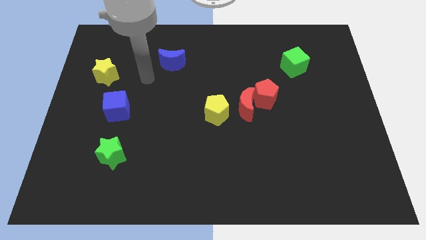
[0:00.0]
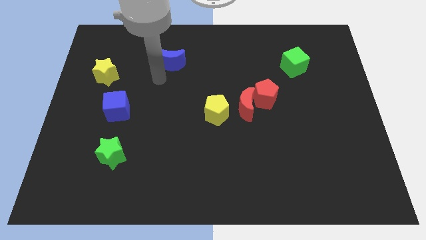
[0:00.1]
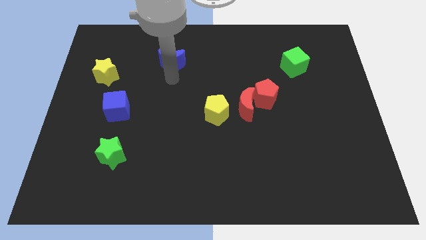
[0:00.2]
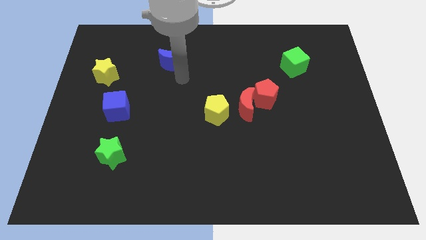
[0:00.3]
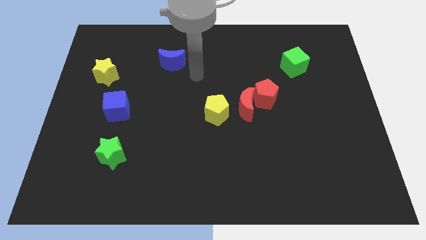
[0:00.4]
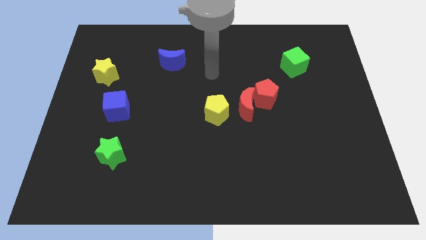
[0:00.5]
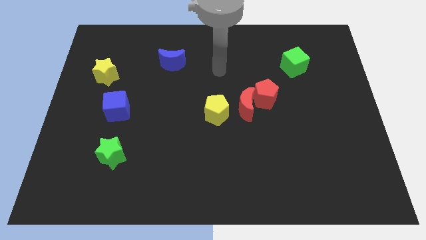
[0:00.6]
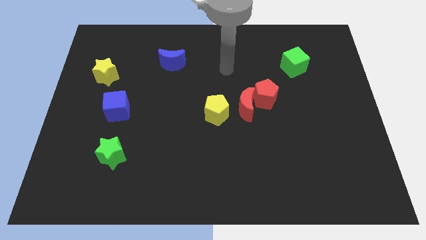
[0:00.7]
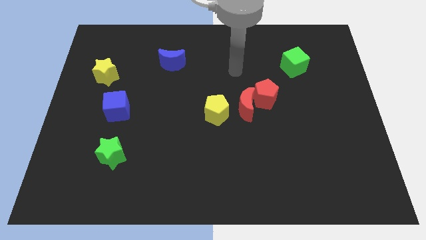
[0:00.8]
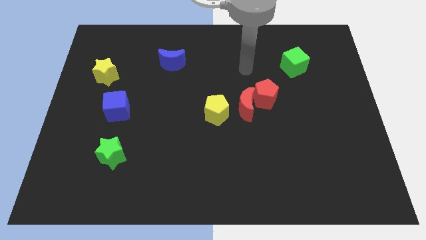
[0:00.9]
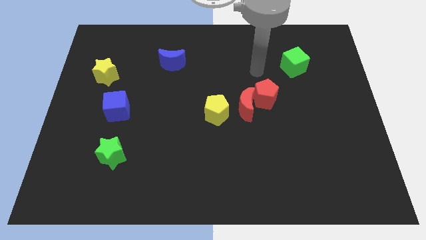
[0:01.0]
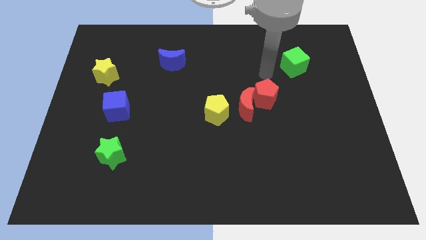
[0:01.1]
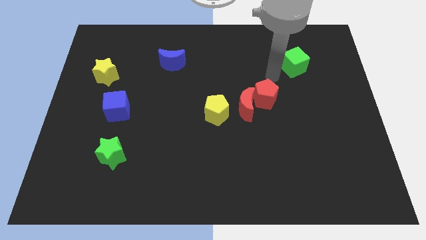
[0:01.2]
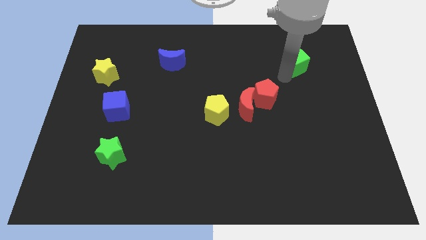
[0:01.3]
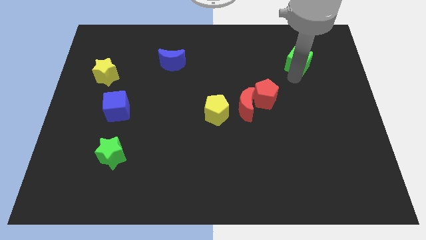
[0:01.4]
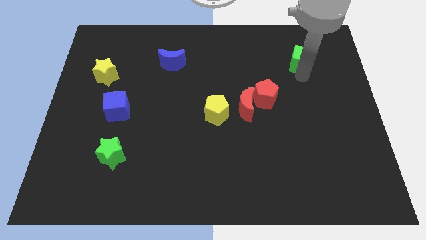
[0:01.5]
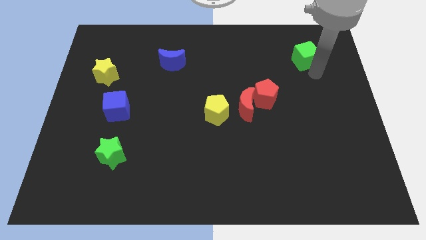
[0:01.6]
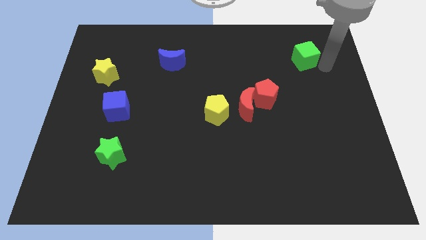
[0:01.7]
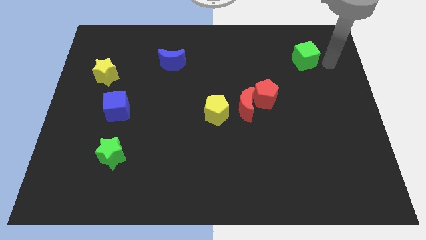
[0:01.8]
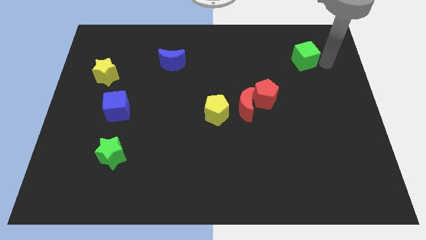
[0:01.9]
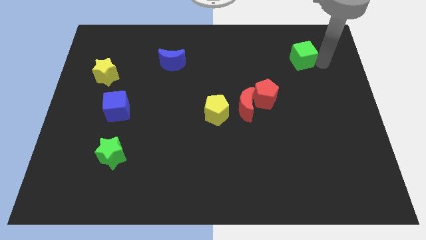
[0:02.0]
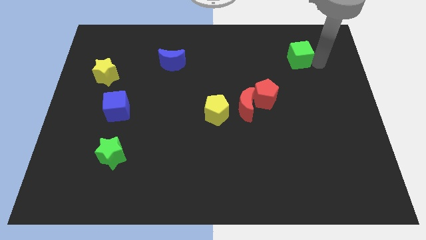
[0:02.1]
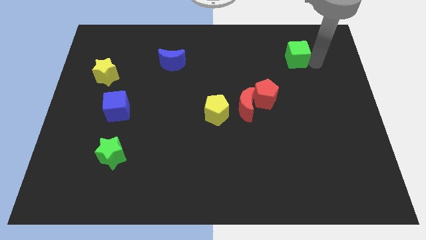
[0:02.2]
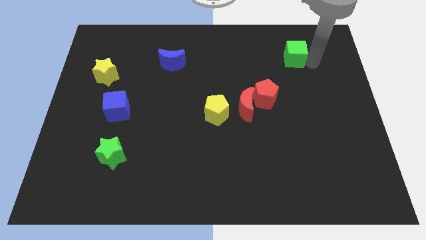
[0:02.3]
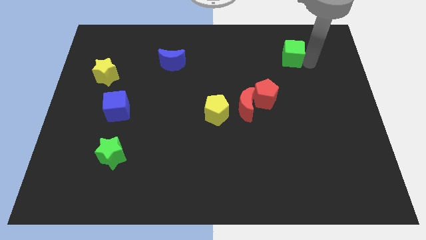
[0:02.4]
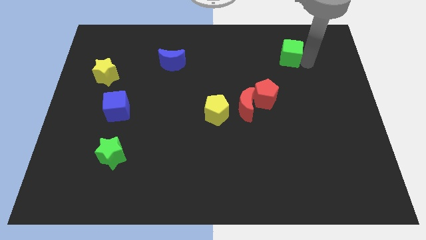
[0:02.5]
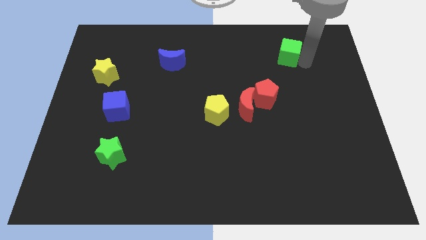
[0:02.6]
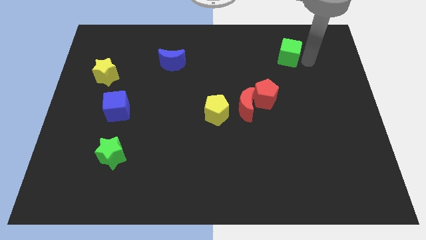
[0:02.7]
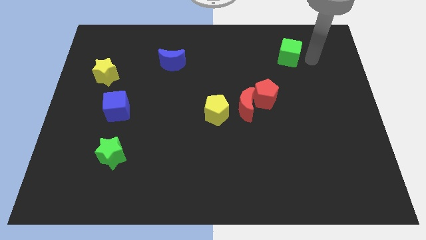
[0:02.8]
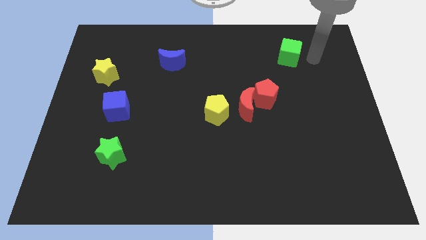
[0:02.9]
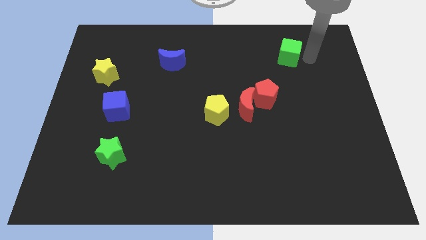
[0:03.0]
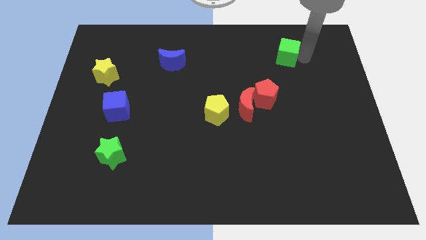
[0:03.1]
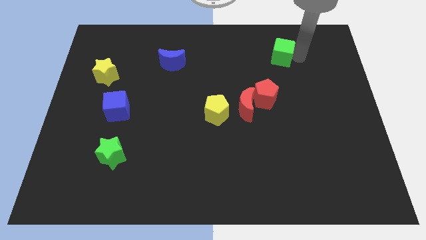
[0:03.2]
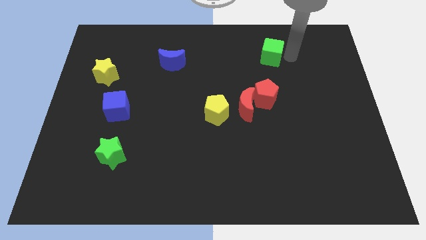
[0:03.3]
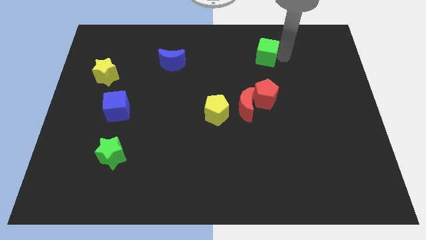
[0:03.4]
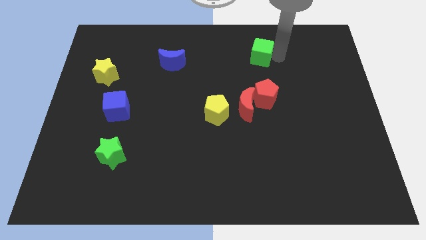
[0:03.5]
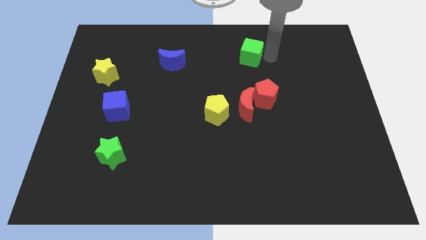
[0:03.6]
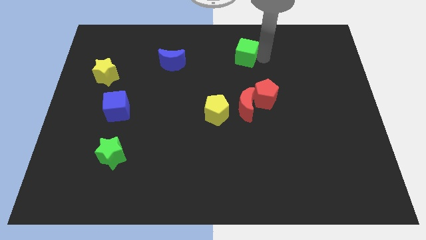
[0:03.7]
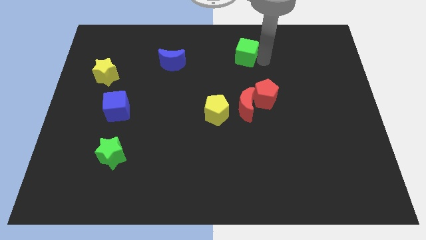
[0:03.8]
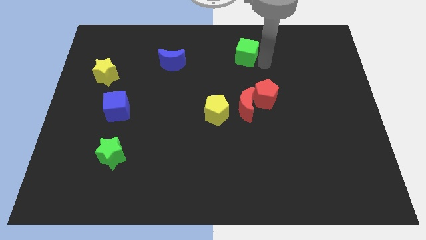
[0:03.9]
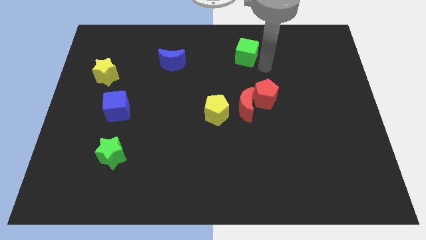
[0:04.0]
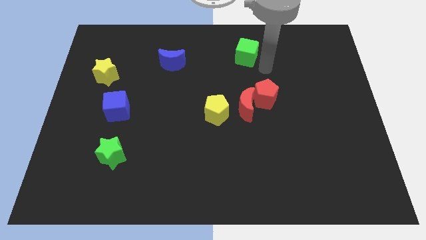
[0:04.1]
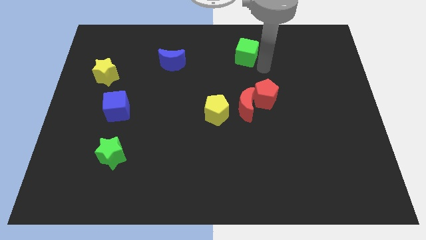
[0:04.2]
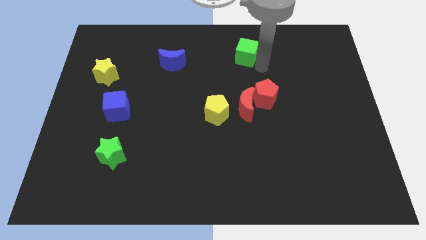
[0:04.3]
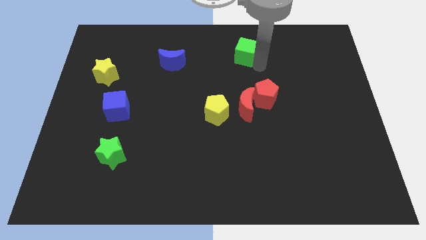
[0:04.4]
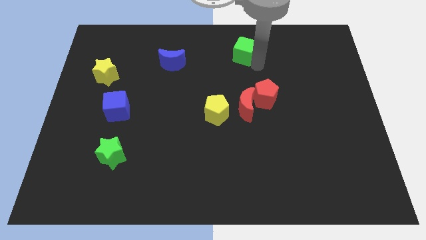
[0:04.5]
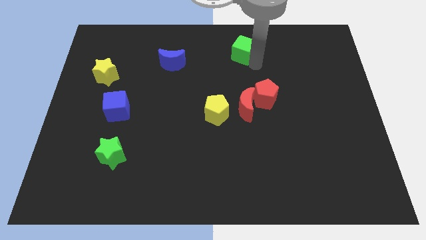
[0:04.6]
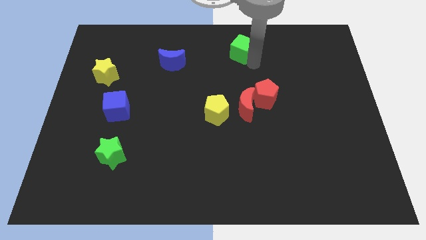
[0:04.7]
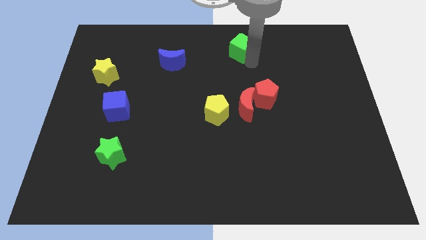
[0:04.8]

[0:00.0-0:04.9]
push the green cube to the top

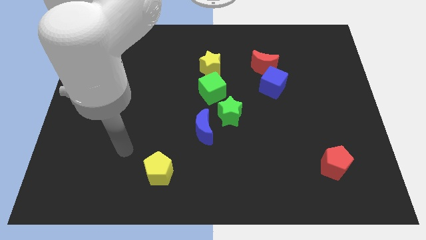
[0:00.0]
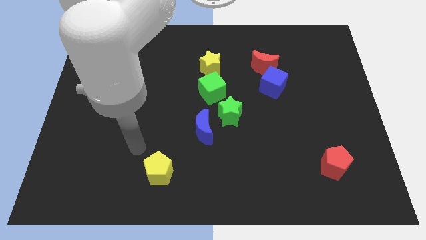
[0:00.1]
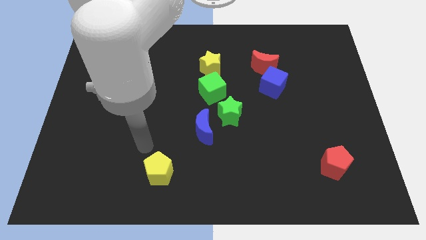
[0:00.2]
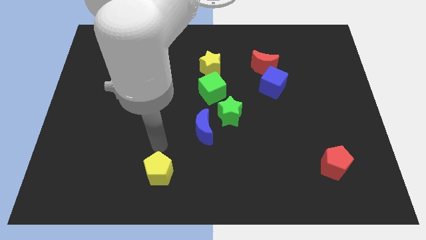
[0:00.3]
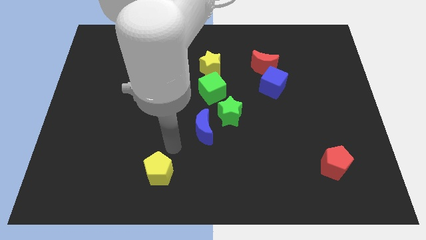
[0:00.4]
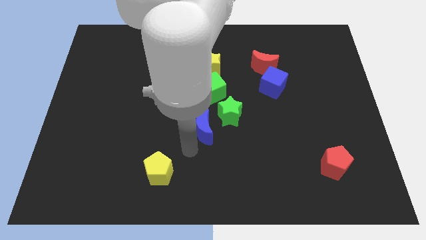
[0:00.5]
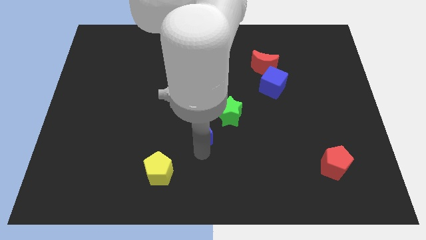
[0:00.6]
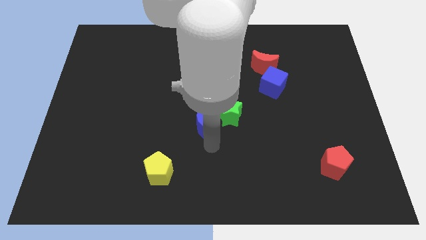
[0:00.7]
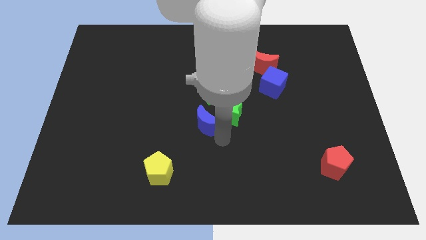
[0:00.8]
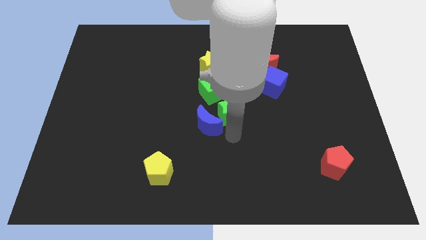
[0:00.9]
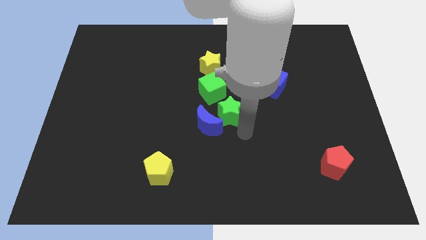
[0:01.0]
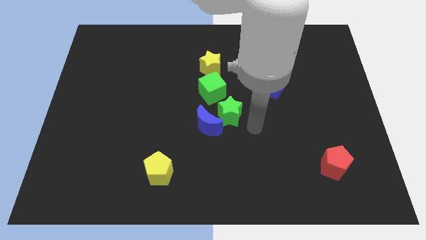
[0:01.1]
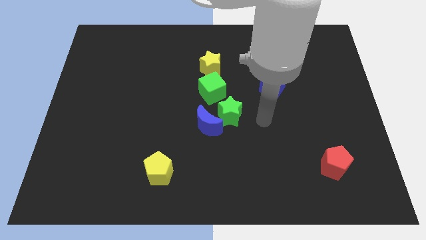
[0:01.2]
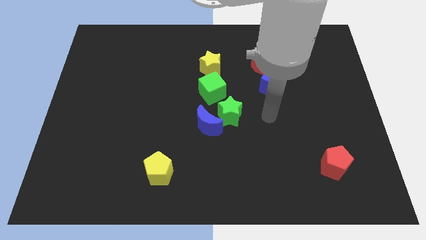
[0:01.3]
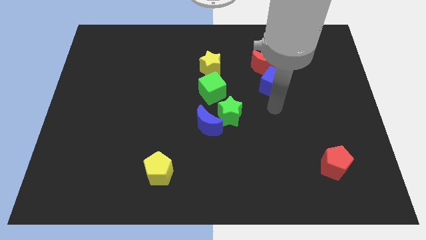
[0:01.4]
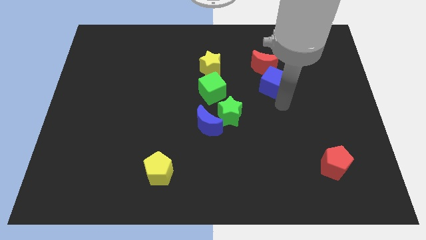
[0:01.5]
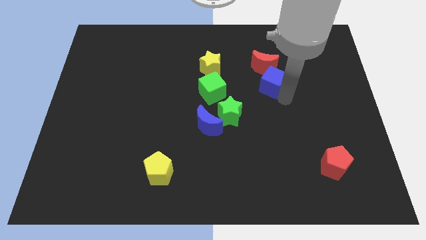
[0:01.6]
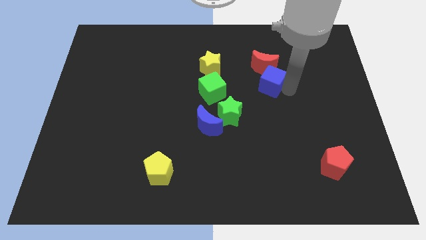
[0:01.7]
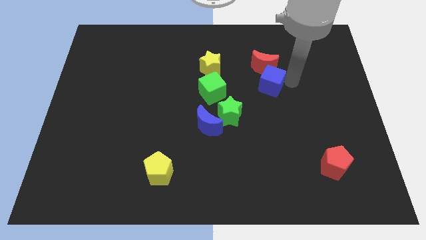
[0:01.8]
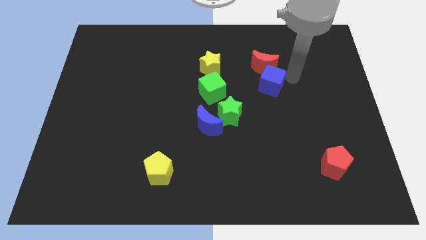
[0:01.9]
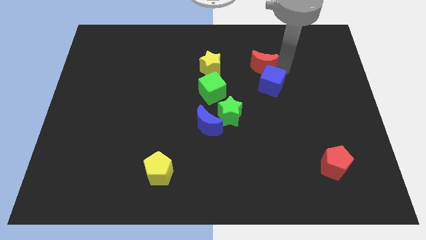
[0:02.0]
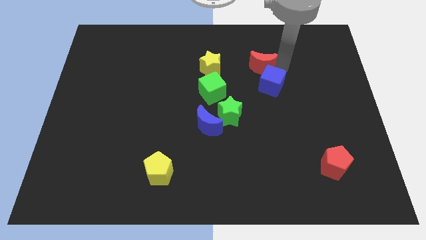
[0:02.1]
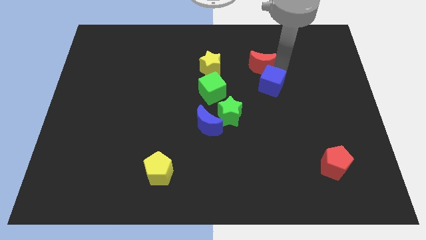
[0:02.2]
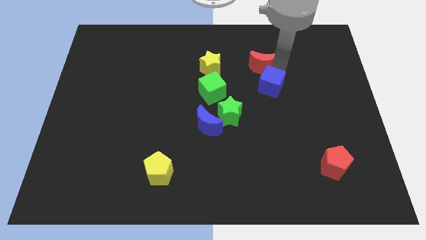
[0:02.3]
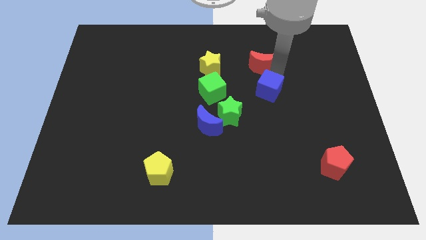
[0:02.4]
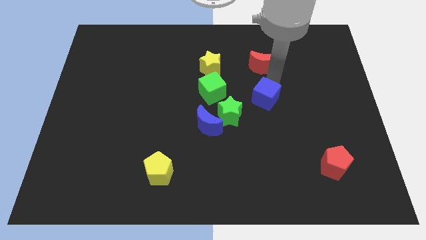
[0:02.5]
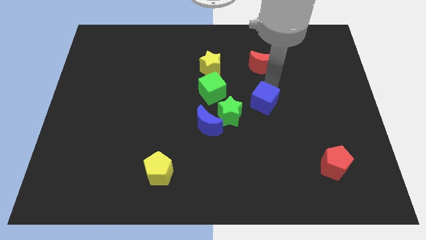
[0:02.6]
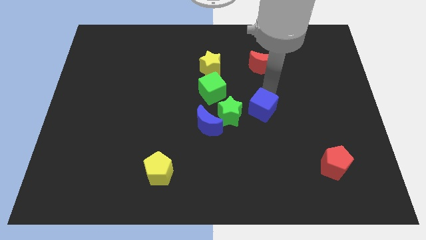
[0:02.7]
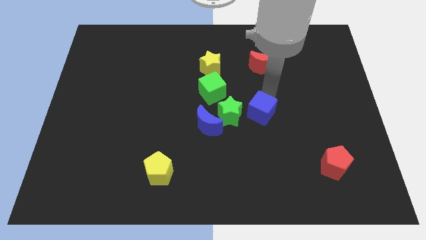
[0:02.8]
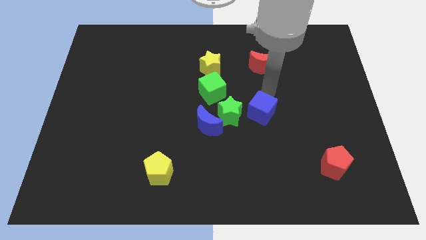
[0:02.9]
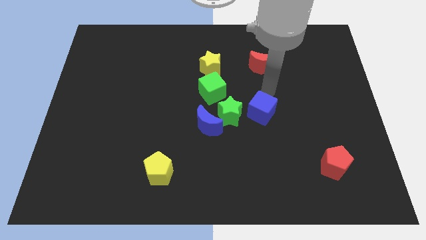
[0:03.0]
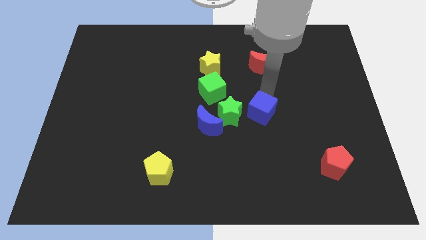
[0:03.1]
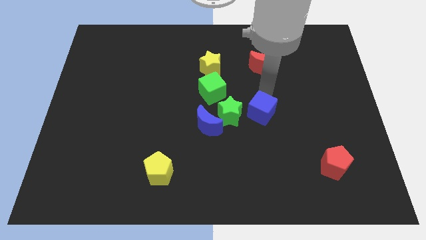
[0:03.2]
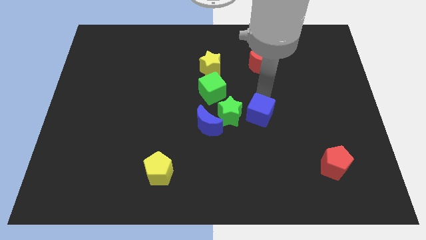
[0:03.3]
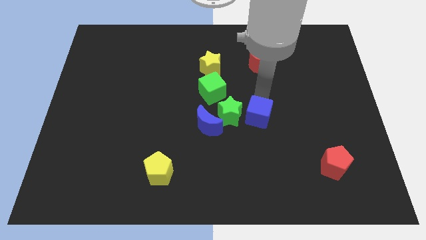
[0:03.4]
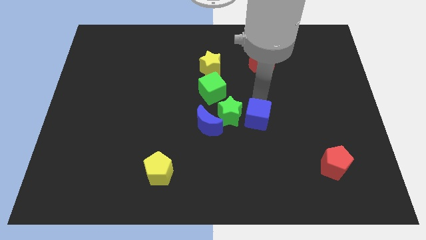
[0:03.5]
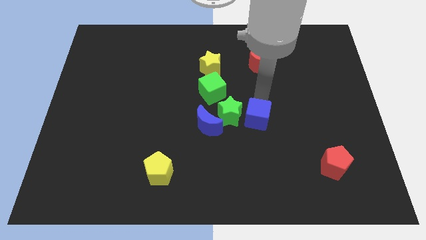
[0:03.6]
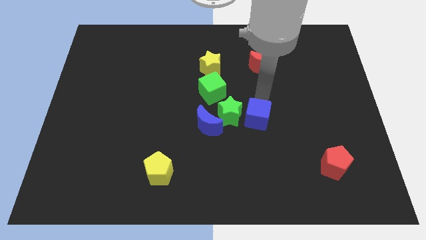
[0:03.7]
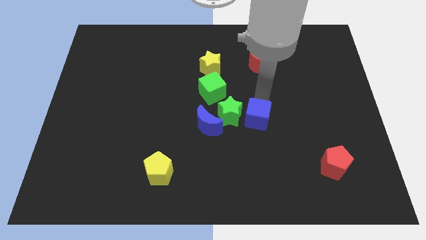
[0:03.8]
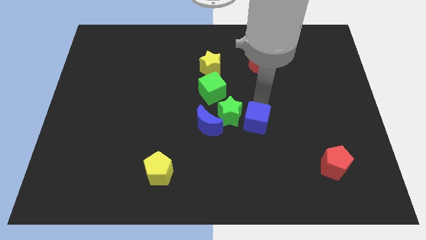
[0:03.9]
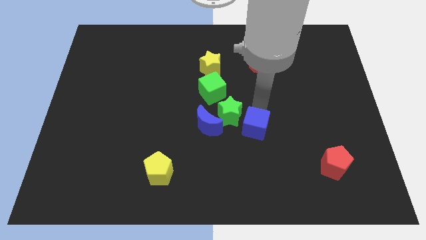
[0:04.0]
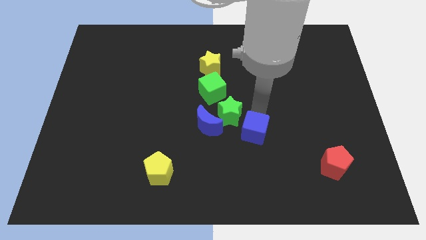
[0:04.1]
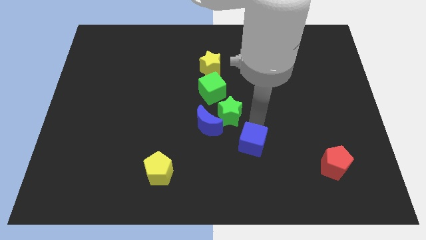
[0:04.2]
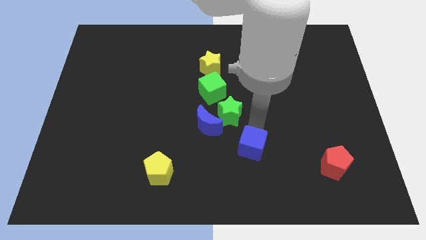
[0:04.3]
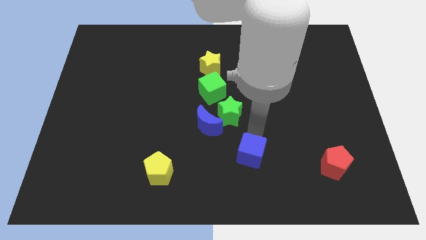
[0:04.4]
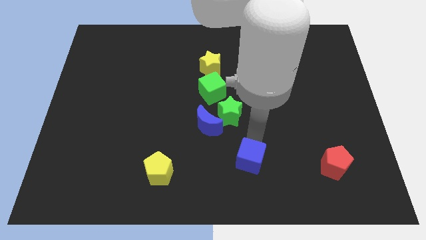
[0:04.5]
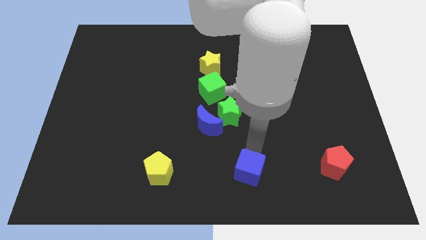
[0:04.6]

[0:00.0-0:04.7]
put the blue cube to the bottom side
